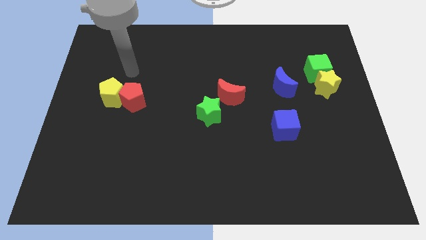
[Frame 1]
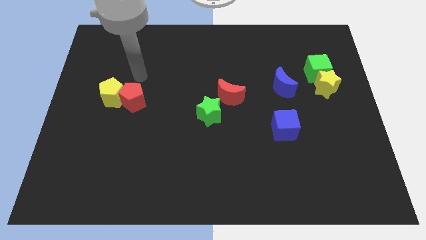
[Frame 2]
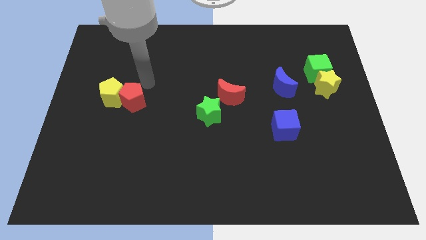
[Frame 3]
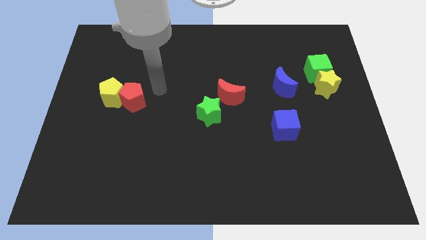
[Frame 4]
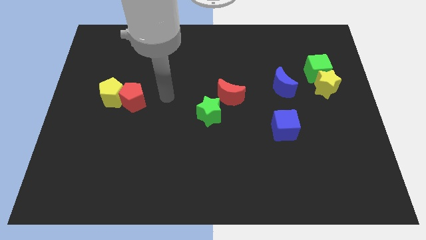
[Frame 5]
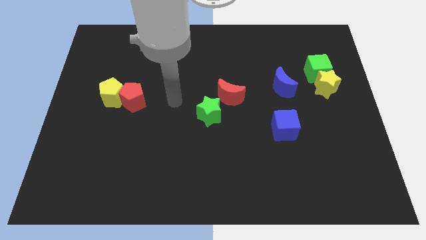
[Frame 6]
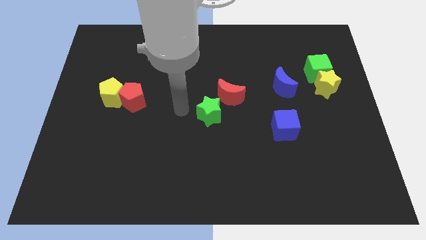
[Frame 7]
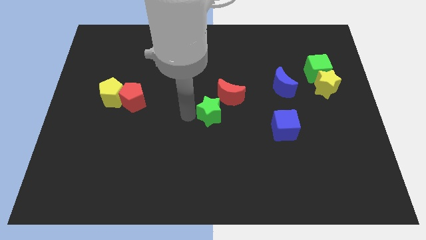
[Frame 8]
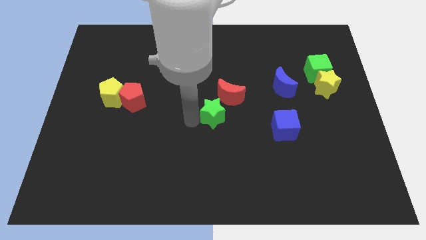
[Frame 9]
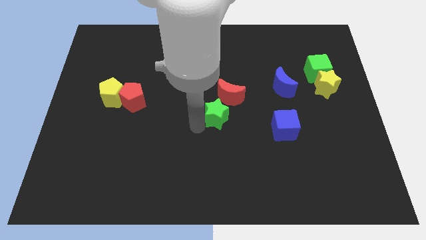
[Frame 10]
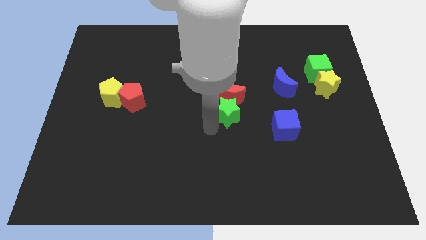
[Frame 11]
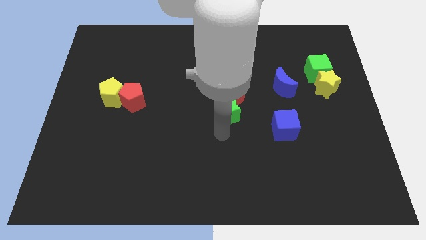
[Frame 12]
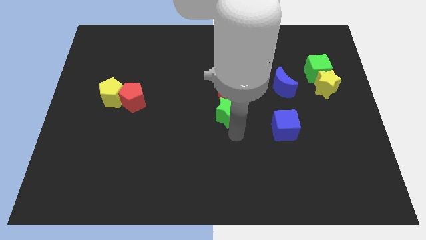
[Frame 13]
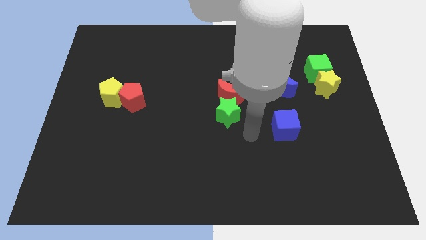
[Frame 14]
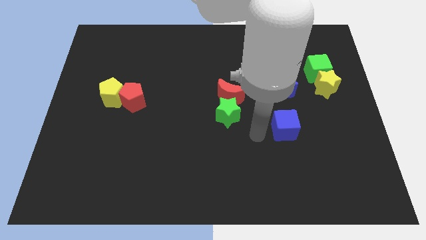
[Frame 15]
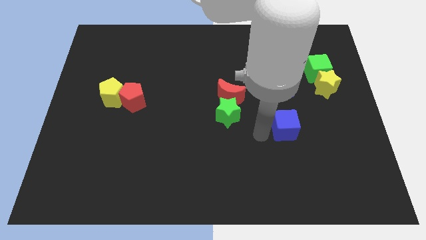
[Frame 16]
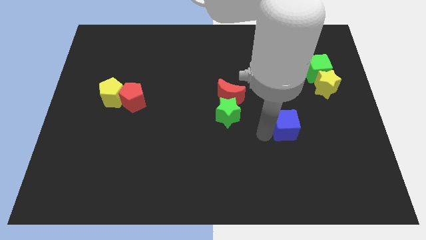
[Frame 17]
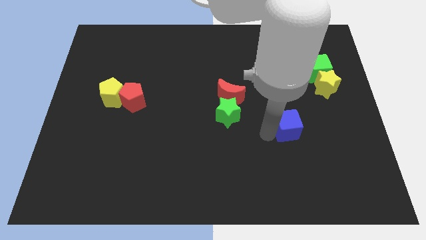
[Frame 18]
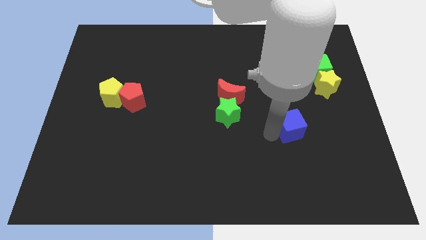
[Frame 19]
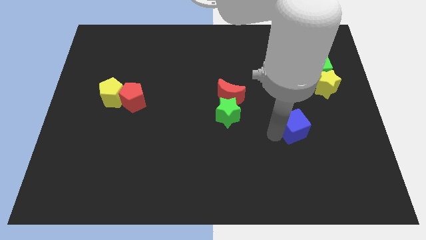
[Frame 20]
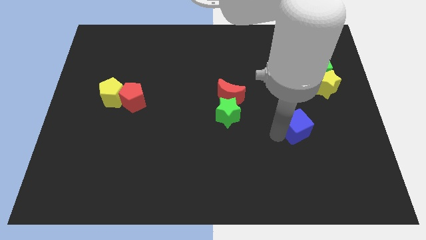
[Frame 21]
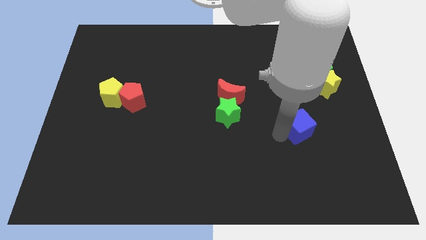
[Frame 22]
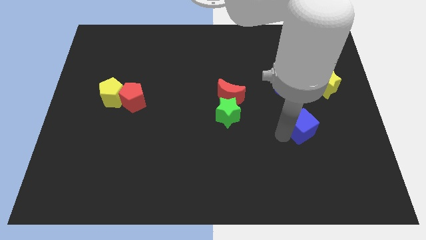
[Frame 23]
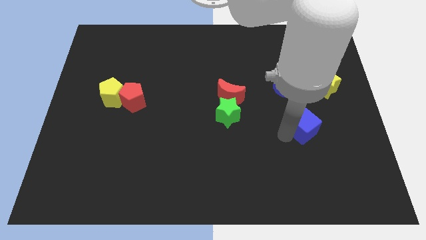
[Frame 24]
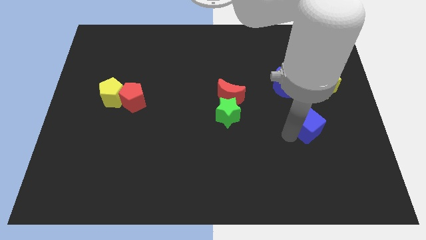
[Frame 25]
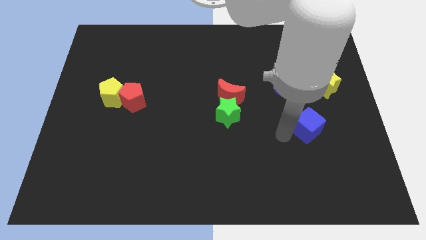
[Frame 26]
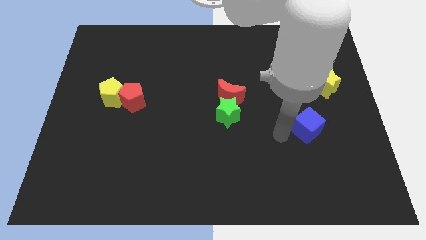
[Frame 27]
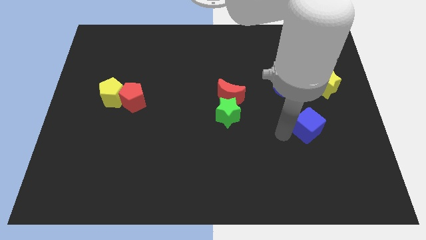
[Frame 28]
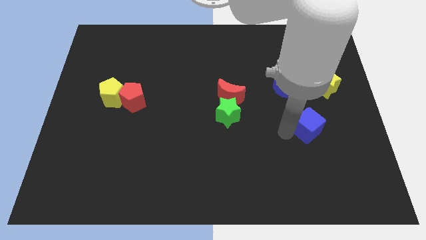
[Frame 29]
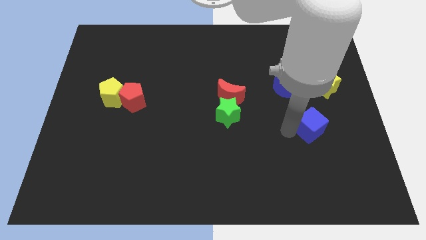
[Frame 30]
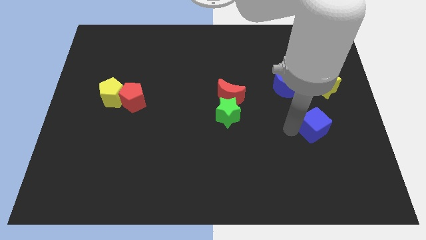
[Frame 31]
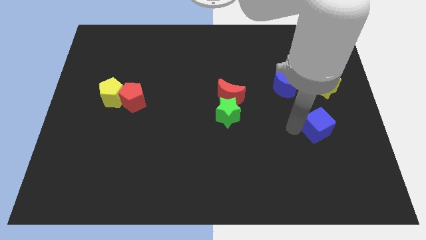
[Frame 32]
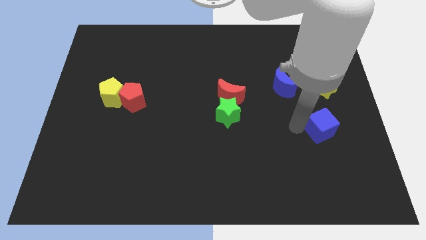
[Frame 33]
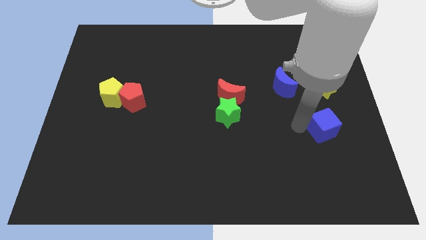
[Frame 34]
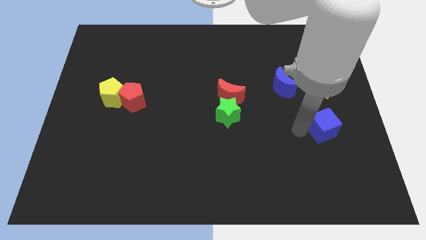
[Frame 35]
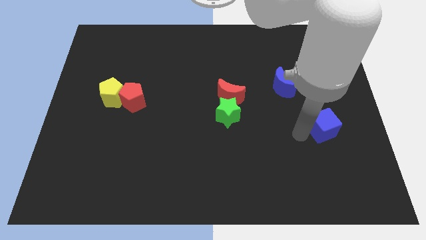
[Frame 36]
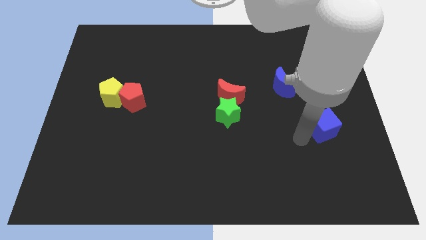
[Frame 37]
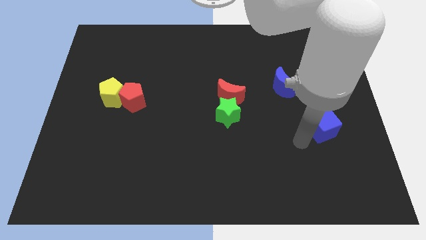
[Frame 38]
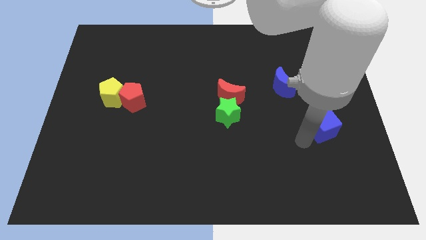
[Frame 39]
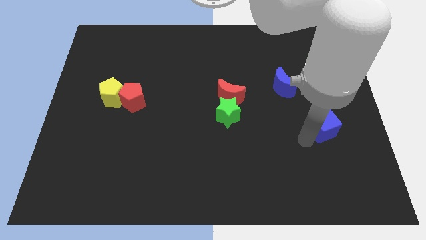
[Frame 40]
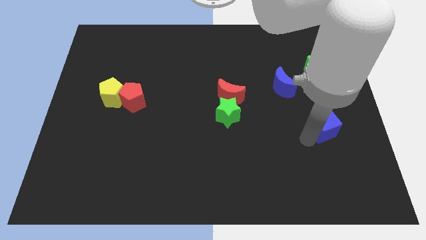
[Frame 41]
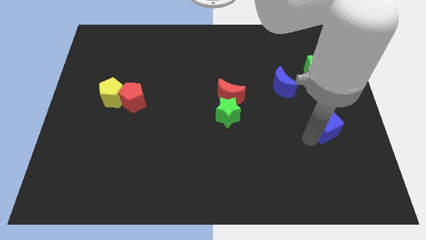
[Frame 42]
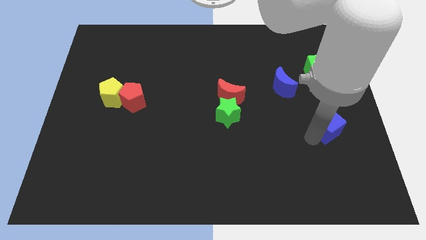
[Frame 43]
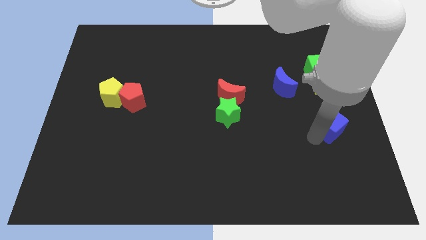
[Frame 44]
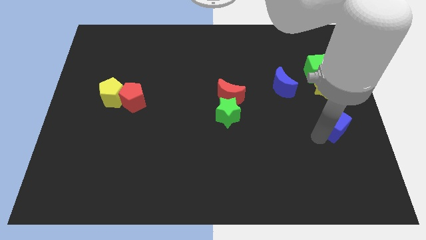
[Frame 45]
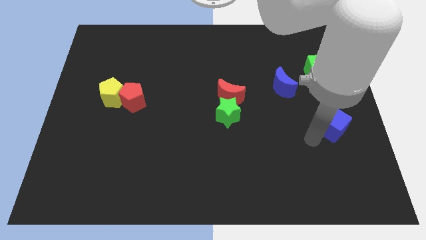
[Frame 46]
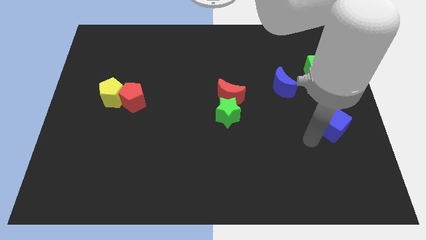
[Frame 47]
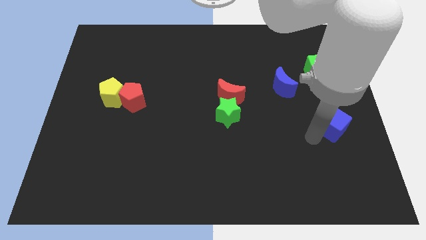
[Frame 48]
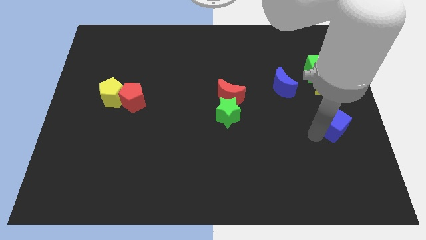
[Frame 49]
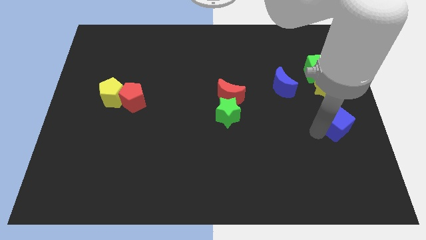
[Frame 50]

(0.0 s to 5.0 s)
move the blue cube to the right side of the board
